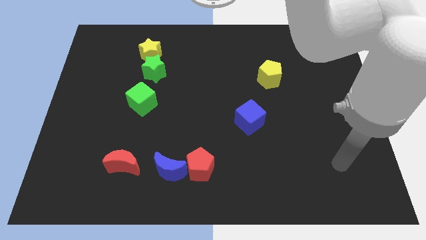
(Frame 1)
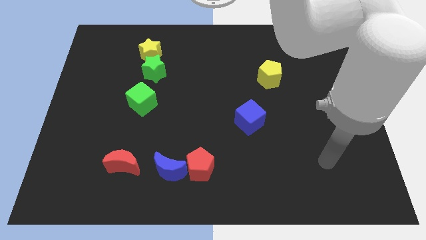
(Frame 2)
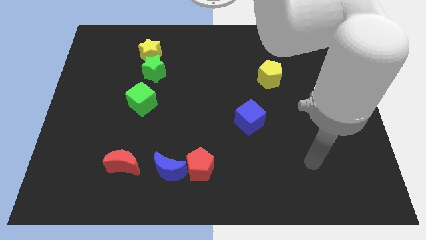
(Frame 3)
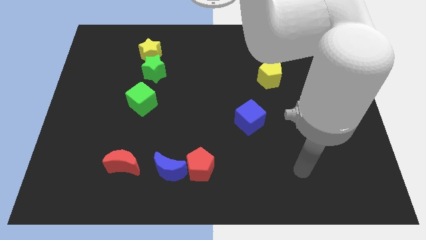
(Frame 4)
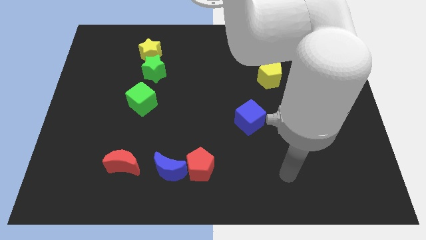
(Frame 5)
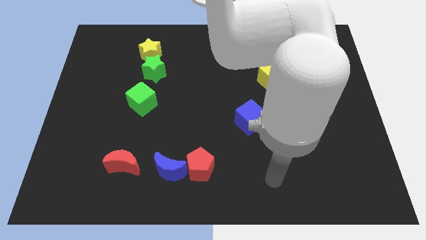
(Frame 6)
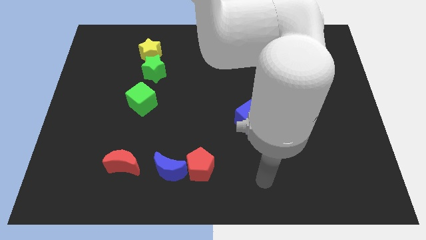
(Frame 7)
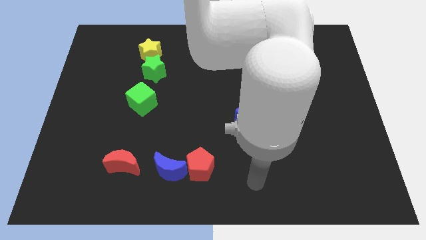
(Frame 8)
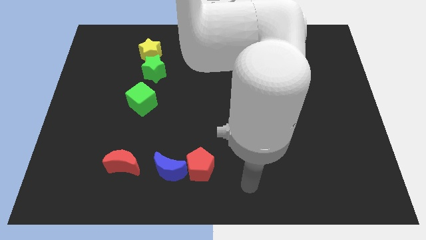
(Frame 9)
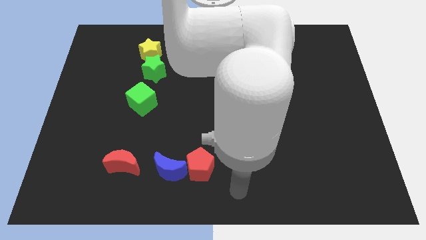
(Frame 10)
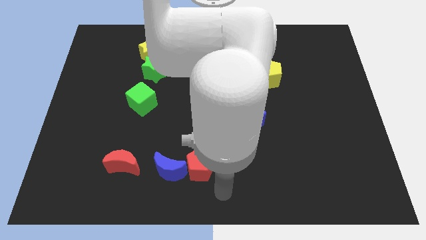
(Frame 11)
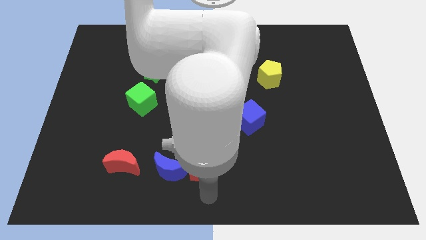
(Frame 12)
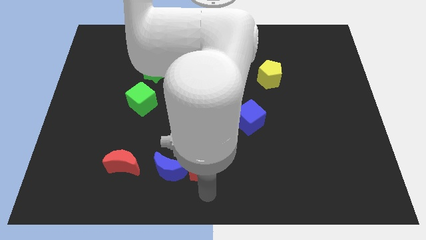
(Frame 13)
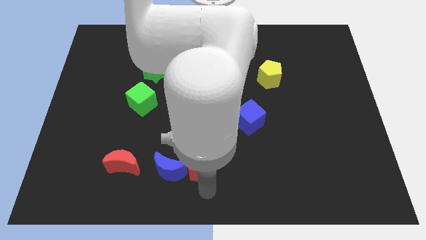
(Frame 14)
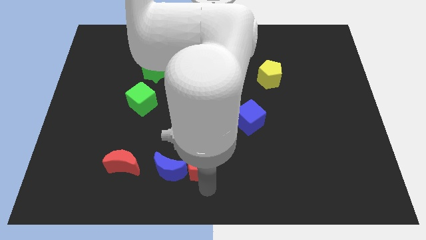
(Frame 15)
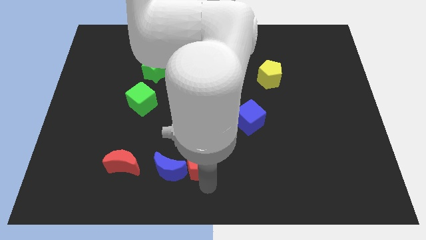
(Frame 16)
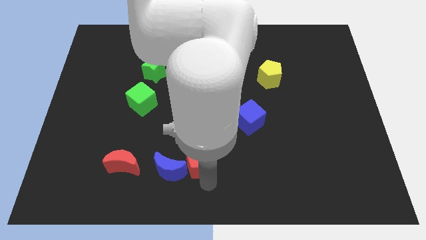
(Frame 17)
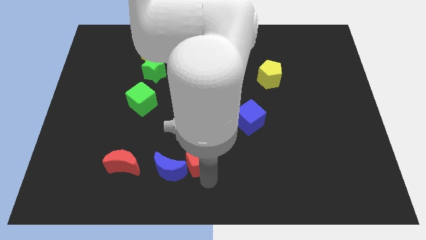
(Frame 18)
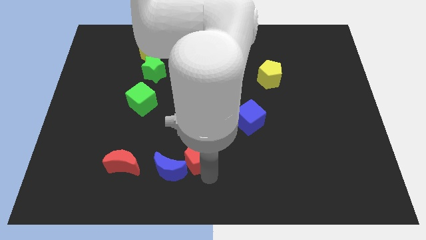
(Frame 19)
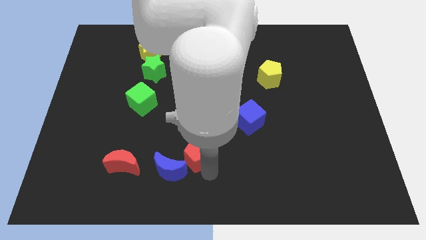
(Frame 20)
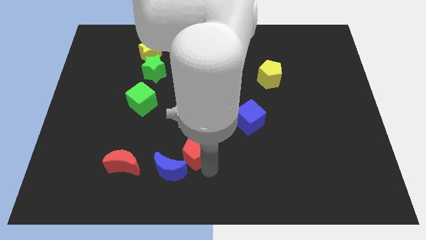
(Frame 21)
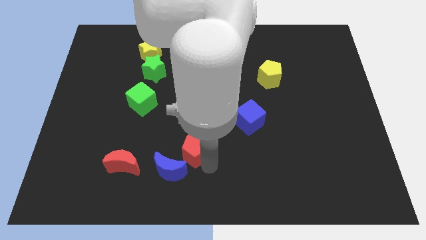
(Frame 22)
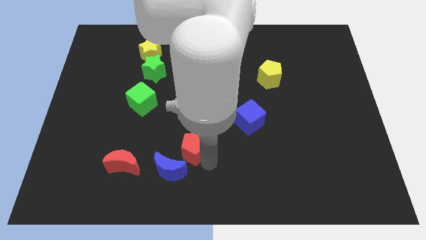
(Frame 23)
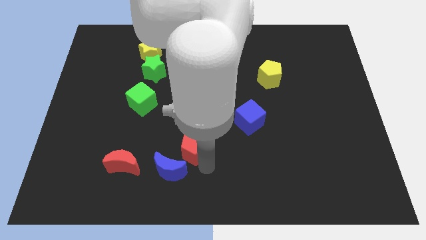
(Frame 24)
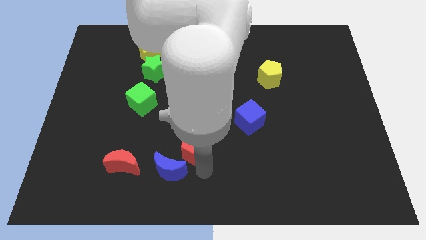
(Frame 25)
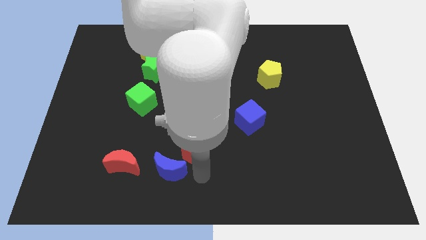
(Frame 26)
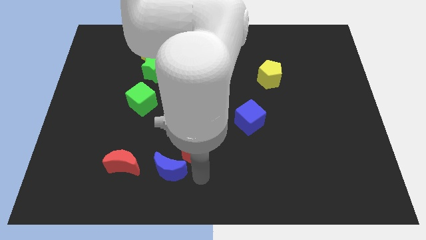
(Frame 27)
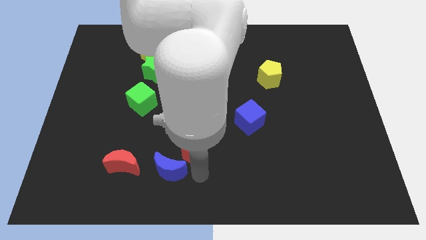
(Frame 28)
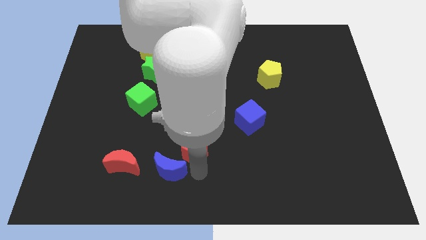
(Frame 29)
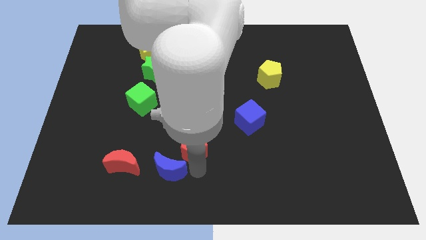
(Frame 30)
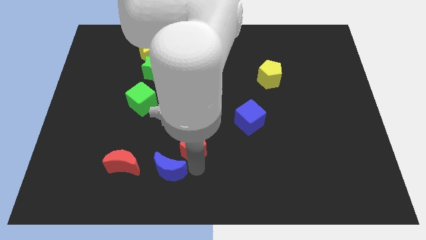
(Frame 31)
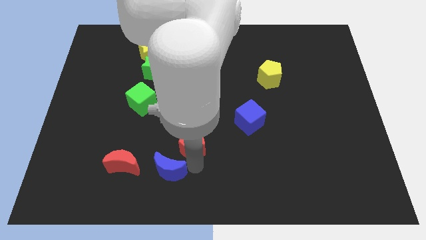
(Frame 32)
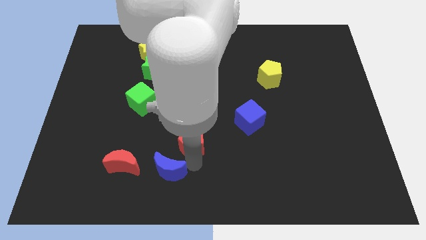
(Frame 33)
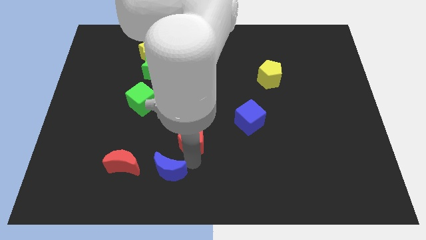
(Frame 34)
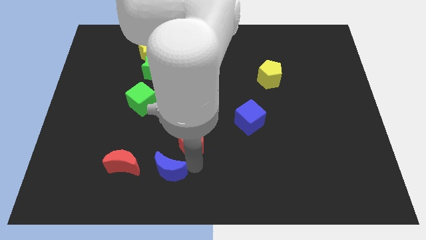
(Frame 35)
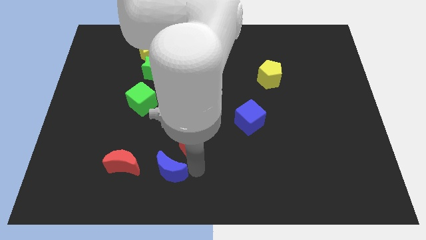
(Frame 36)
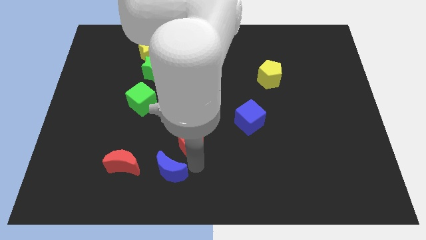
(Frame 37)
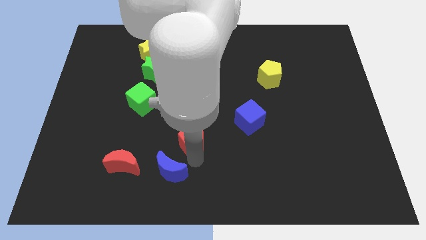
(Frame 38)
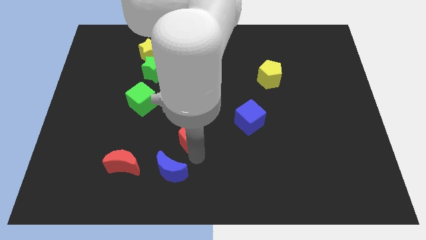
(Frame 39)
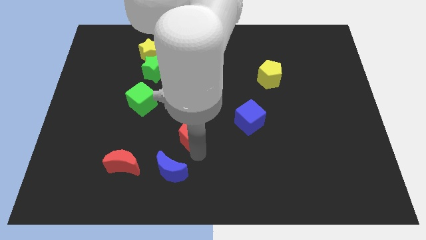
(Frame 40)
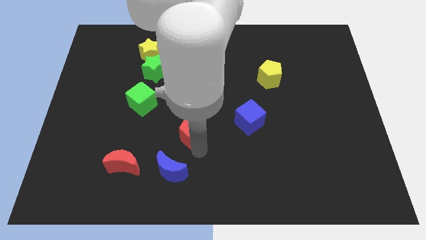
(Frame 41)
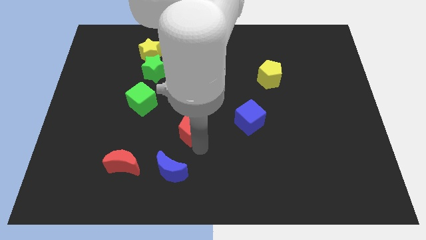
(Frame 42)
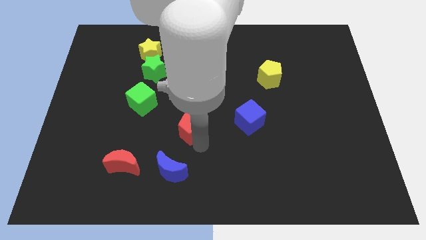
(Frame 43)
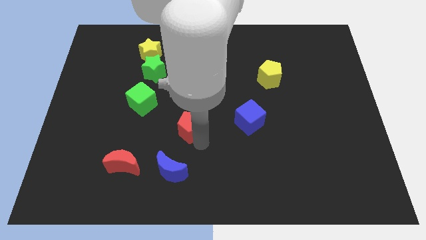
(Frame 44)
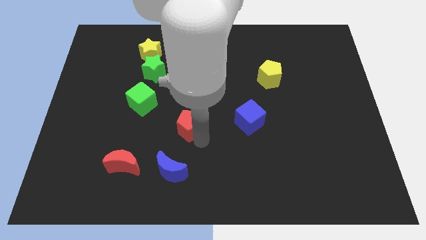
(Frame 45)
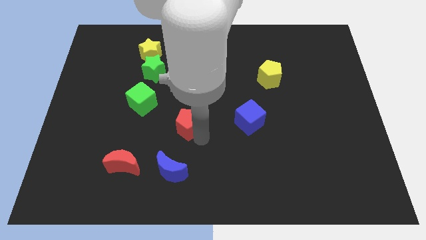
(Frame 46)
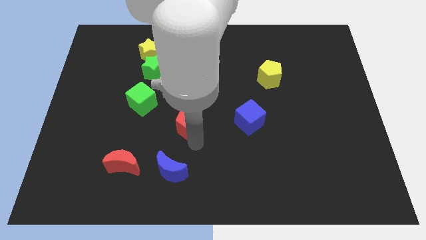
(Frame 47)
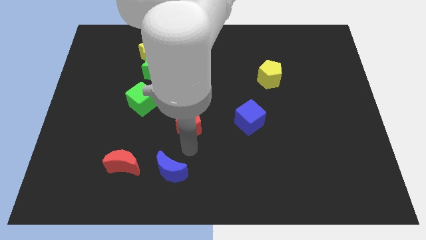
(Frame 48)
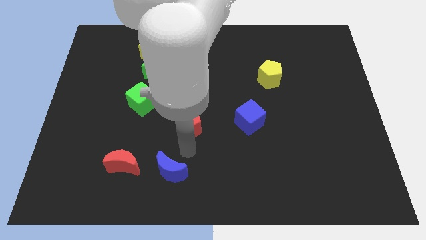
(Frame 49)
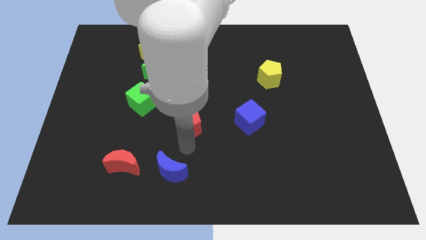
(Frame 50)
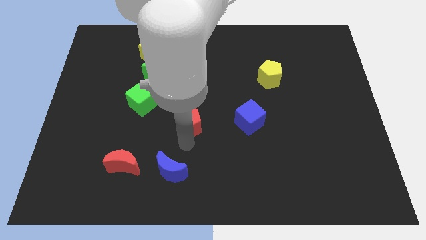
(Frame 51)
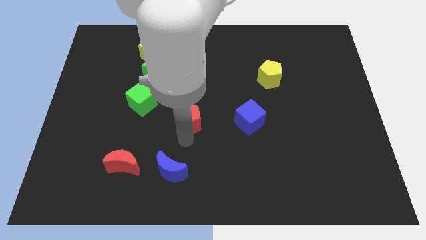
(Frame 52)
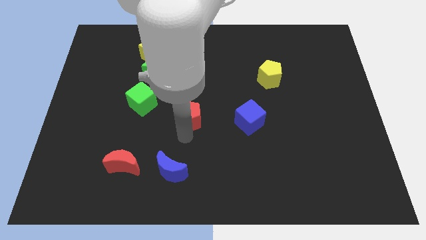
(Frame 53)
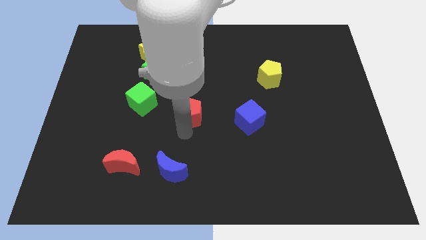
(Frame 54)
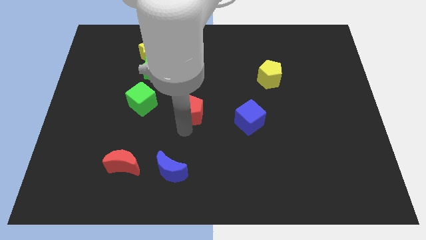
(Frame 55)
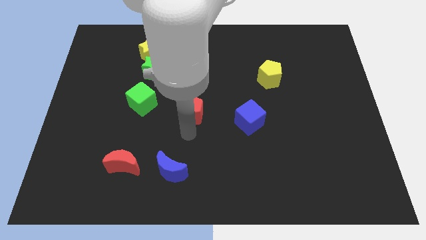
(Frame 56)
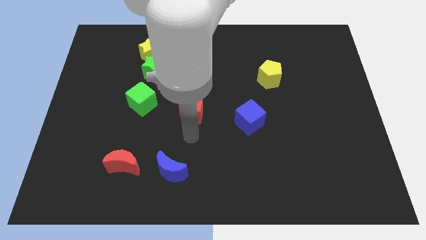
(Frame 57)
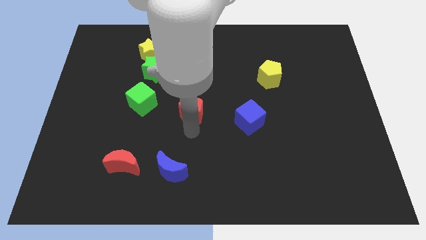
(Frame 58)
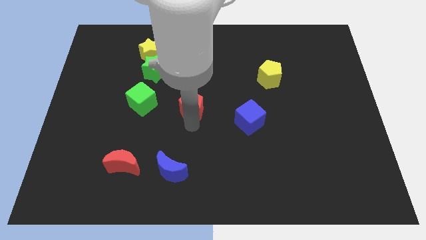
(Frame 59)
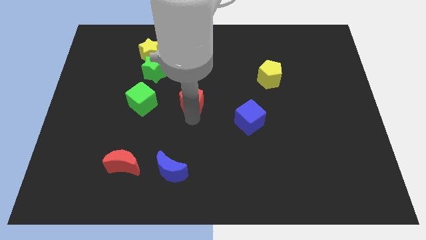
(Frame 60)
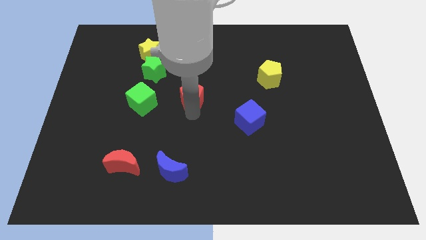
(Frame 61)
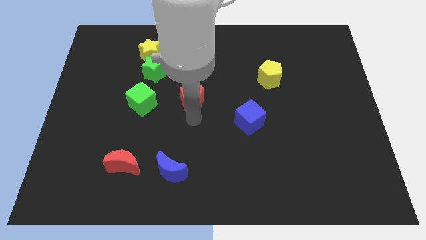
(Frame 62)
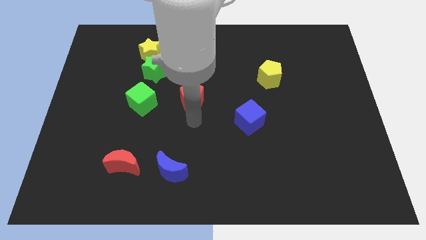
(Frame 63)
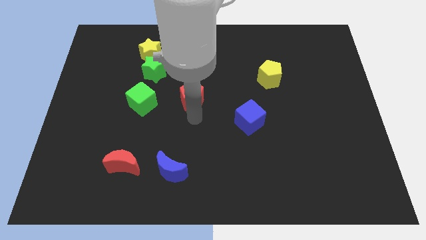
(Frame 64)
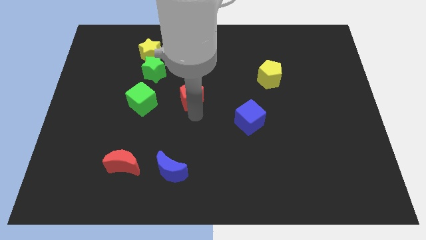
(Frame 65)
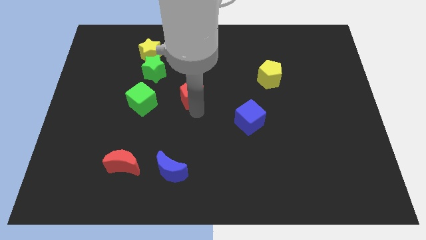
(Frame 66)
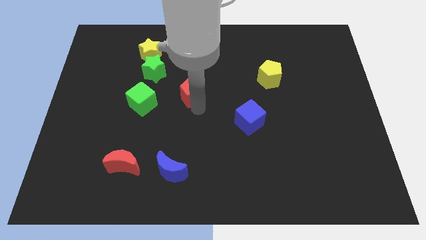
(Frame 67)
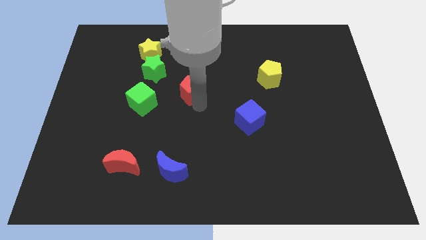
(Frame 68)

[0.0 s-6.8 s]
slide the red pentagon upwards

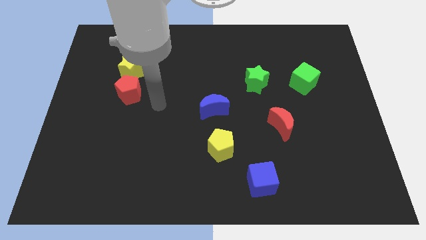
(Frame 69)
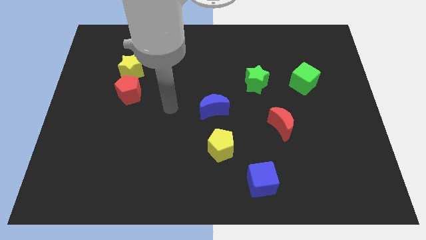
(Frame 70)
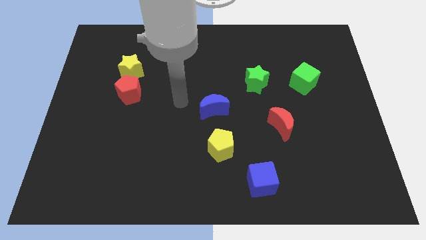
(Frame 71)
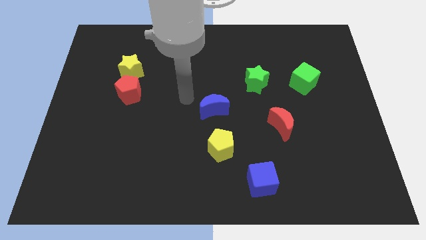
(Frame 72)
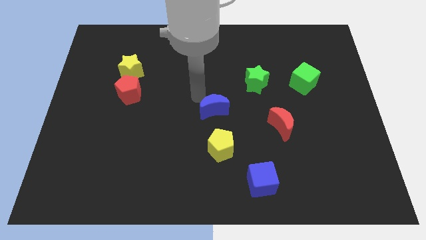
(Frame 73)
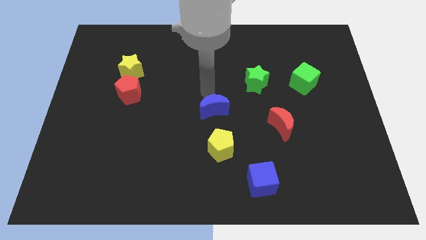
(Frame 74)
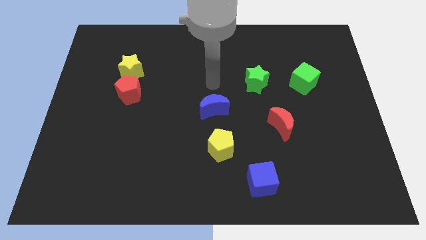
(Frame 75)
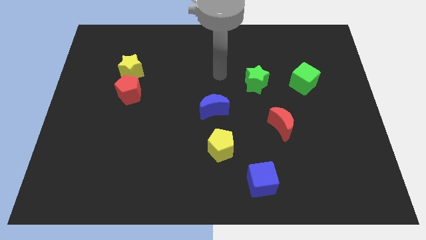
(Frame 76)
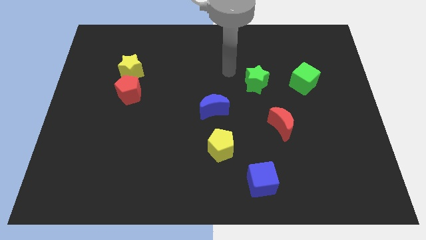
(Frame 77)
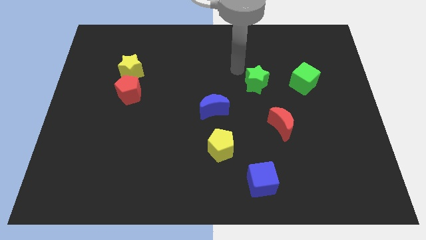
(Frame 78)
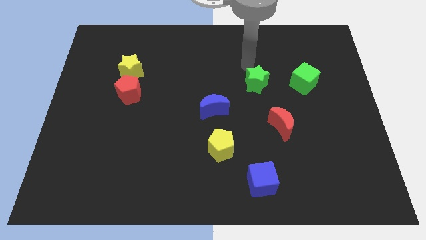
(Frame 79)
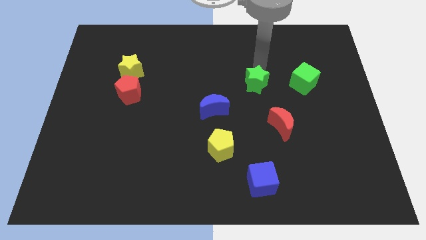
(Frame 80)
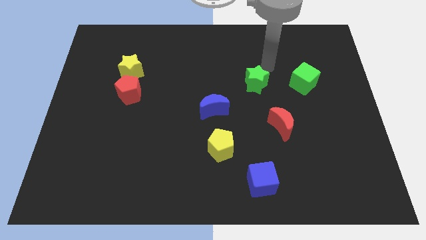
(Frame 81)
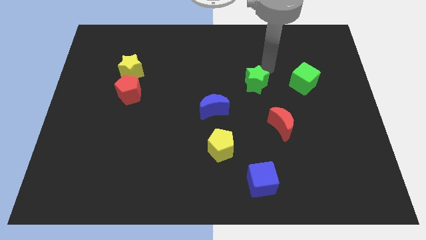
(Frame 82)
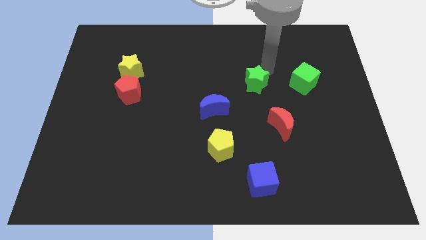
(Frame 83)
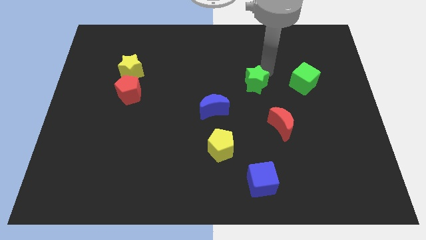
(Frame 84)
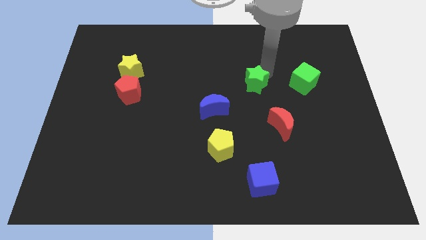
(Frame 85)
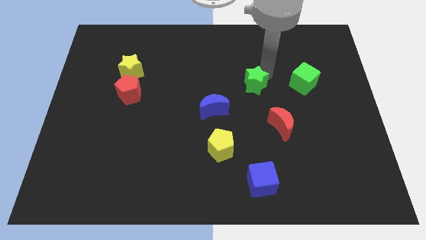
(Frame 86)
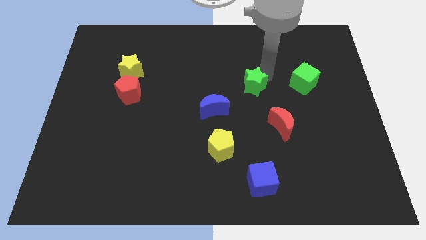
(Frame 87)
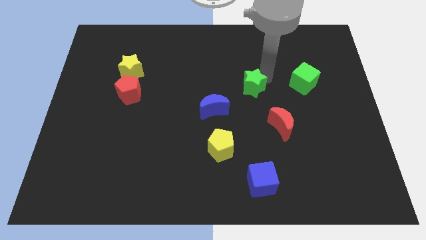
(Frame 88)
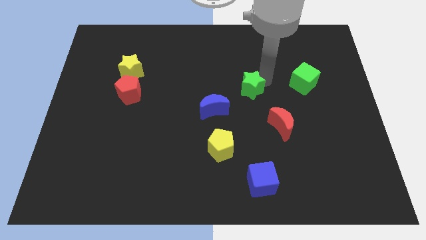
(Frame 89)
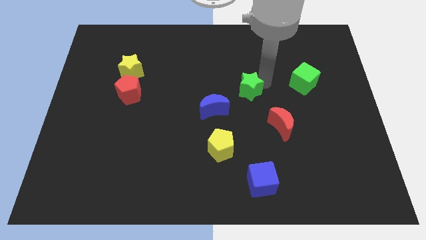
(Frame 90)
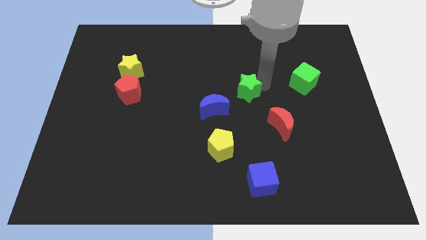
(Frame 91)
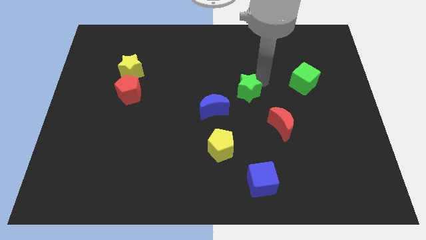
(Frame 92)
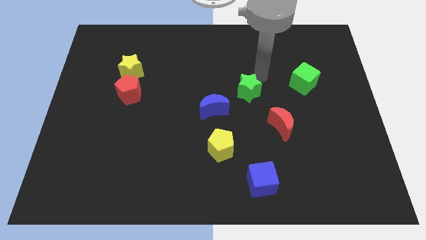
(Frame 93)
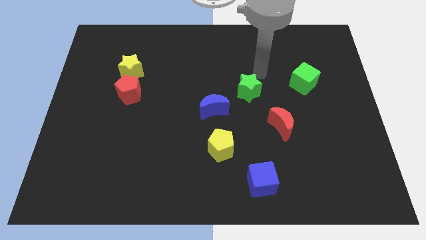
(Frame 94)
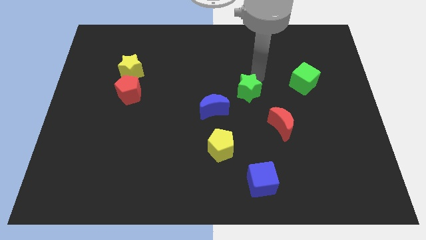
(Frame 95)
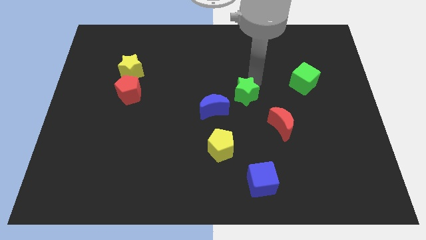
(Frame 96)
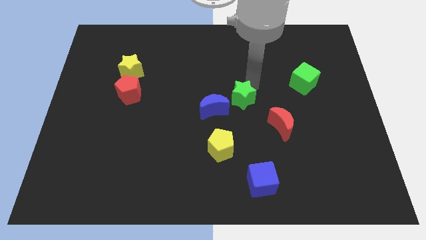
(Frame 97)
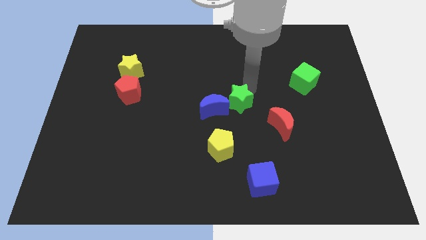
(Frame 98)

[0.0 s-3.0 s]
slightly move the green star downwards and left
